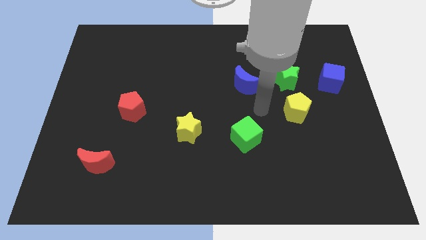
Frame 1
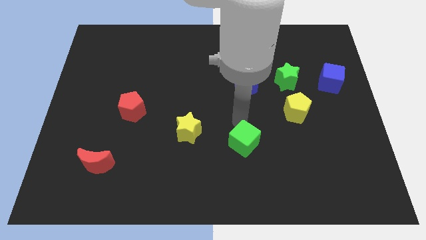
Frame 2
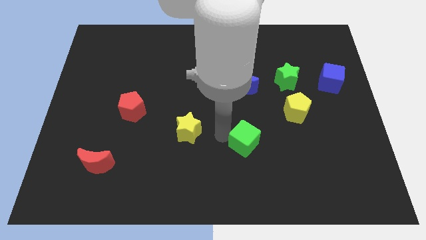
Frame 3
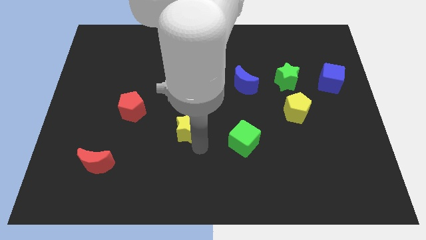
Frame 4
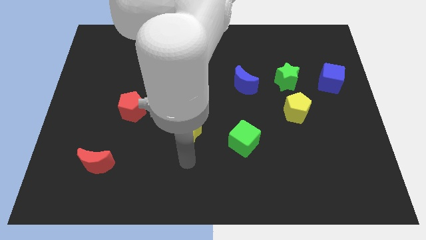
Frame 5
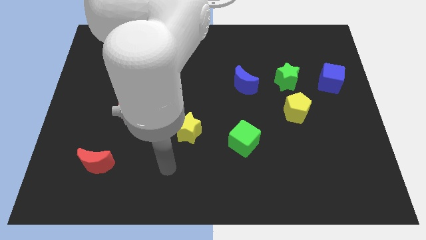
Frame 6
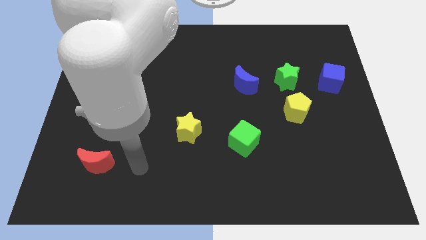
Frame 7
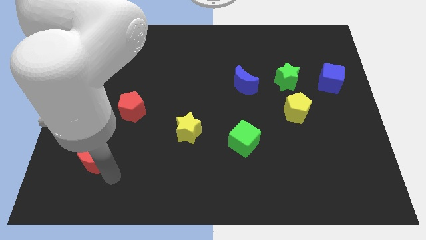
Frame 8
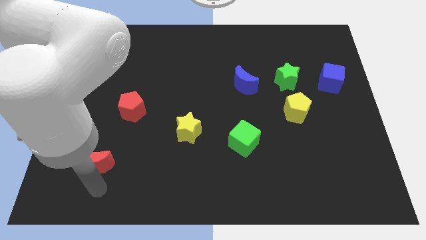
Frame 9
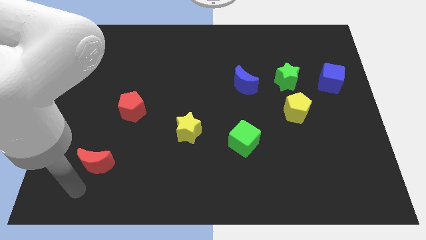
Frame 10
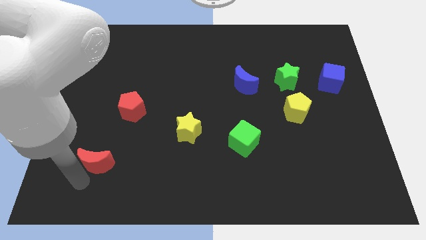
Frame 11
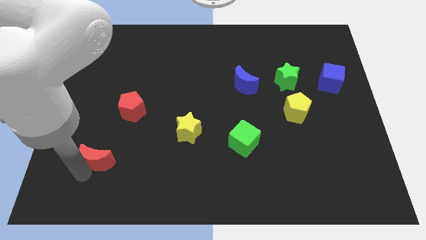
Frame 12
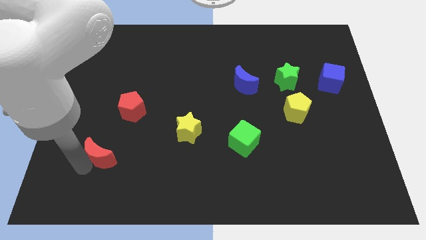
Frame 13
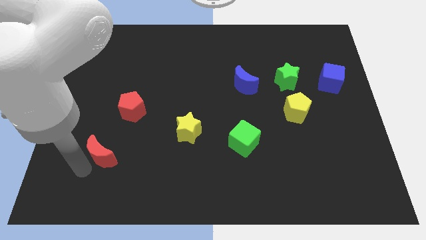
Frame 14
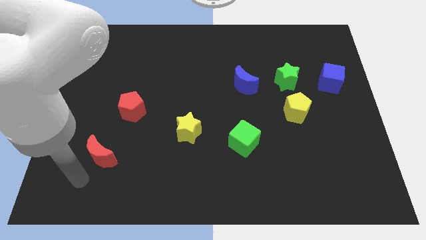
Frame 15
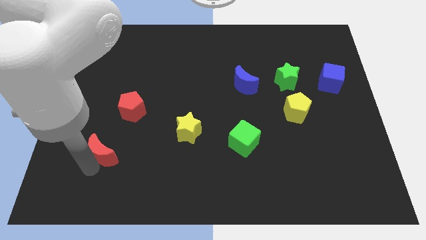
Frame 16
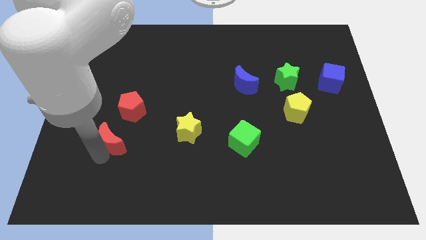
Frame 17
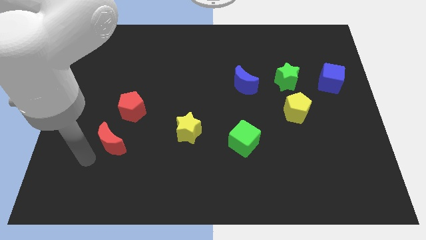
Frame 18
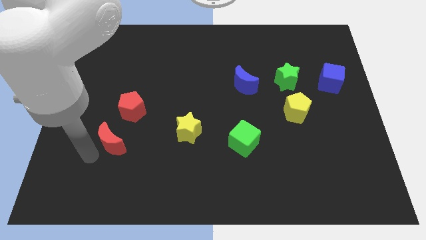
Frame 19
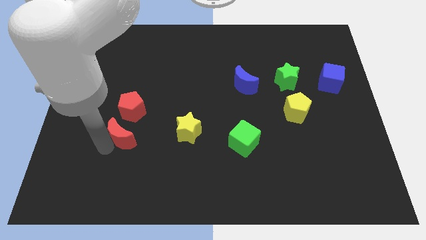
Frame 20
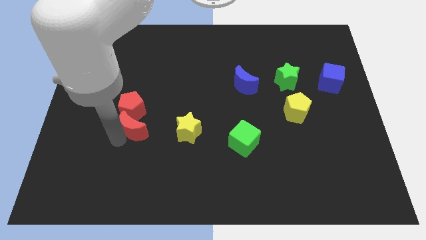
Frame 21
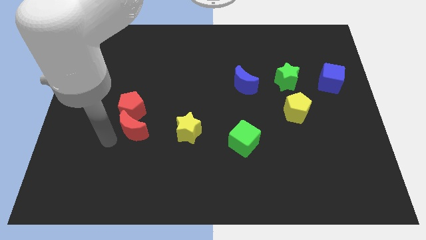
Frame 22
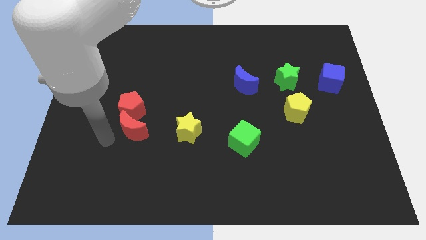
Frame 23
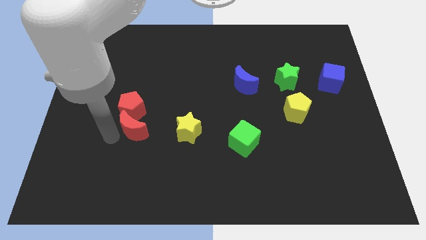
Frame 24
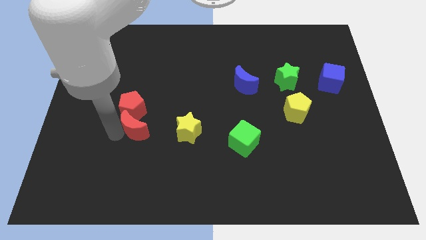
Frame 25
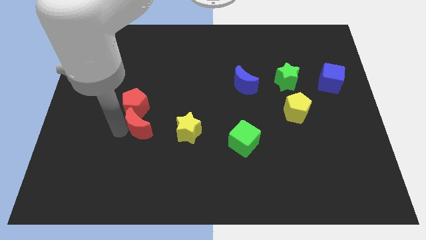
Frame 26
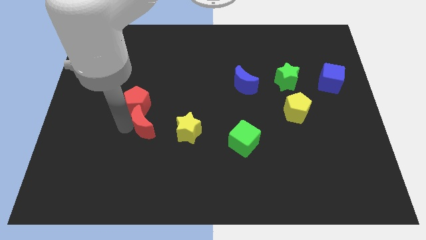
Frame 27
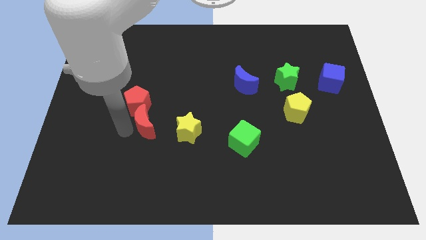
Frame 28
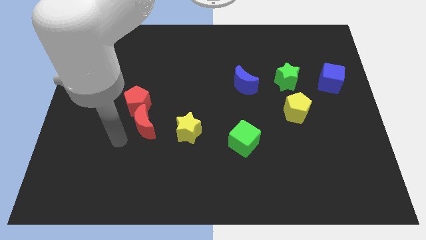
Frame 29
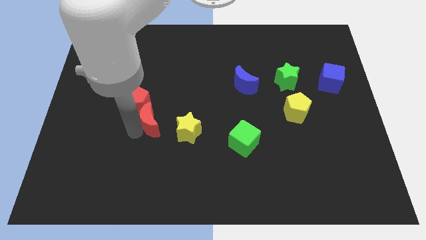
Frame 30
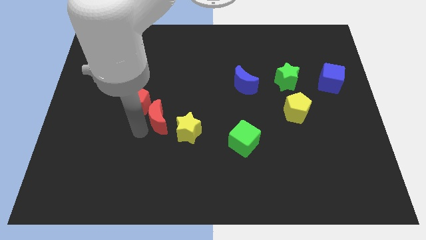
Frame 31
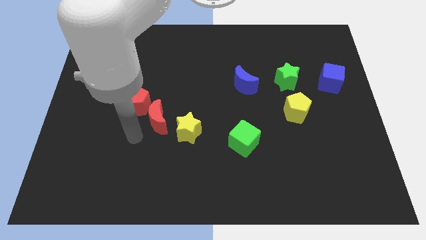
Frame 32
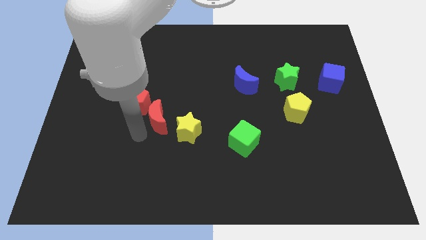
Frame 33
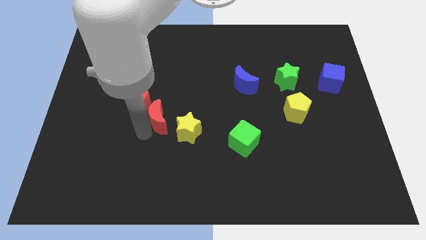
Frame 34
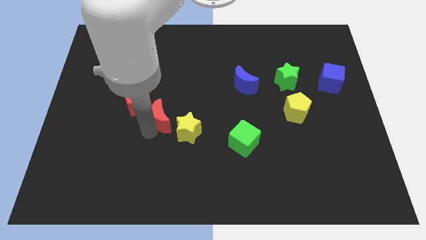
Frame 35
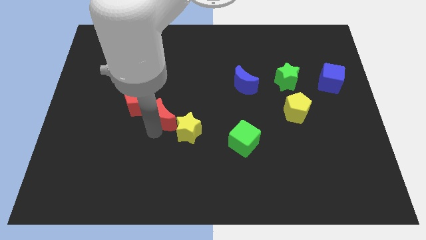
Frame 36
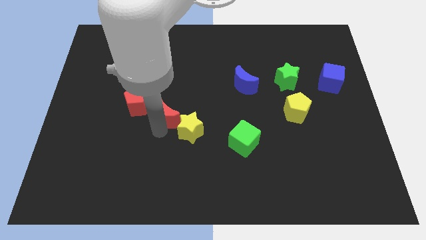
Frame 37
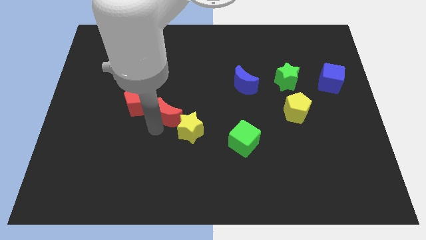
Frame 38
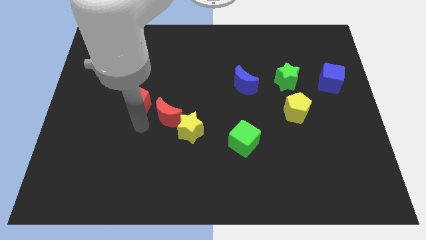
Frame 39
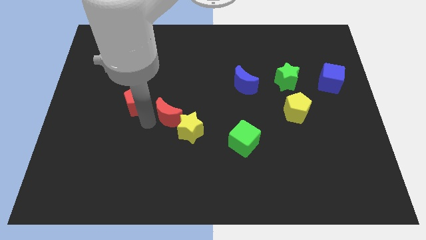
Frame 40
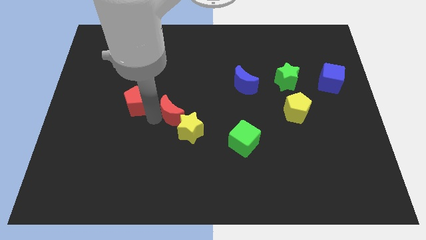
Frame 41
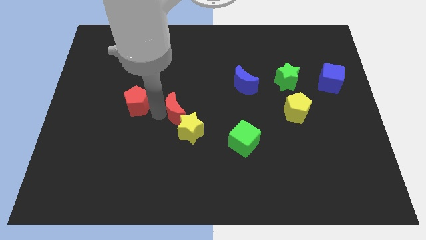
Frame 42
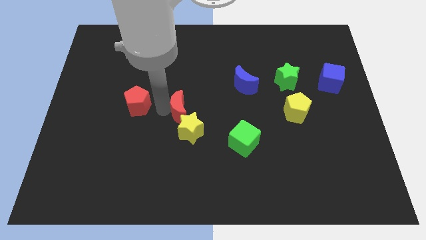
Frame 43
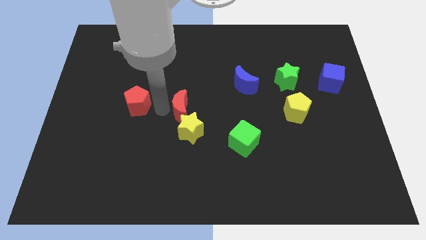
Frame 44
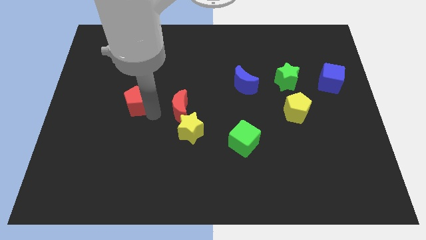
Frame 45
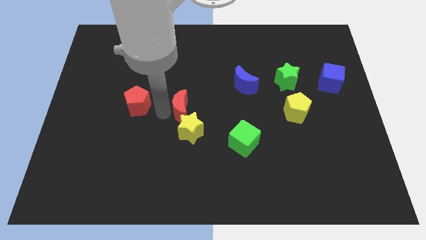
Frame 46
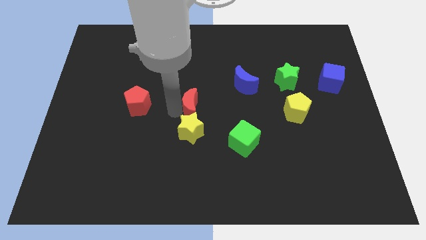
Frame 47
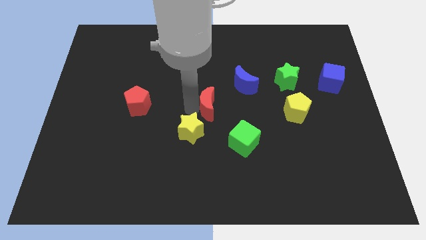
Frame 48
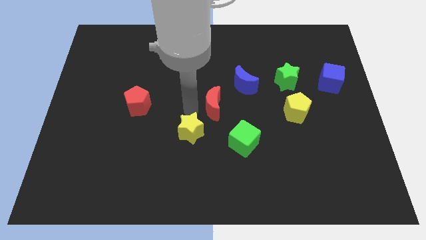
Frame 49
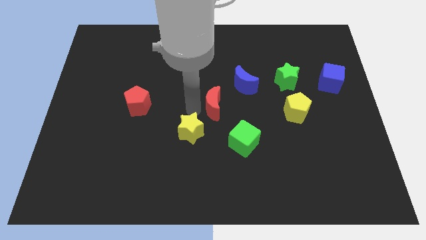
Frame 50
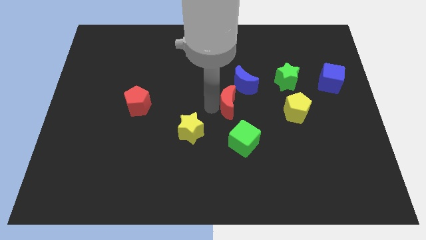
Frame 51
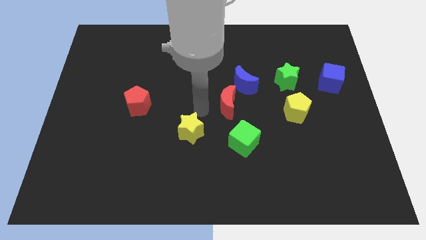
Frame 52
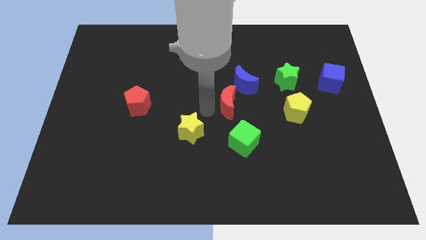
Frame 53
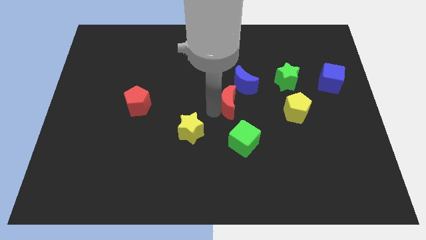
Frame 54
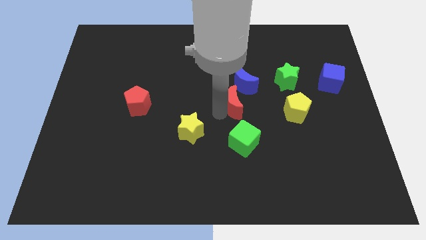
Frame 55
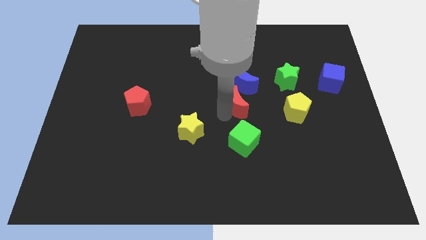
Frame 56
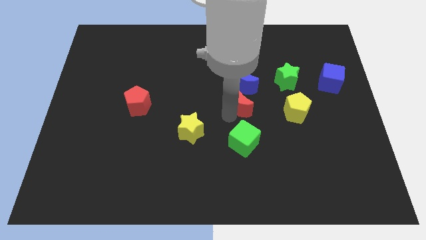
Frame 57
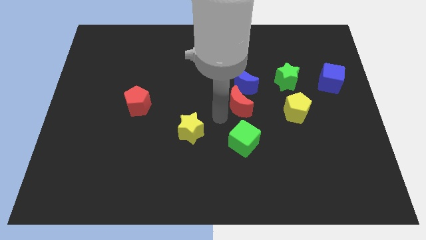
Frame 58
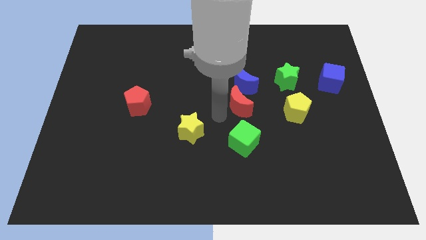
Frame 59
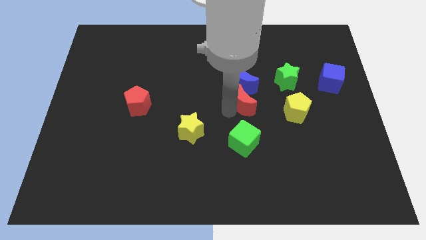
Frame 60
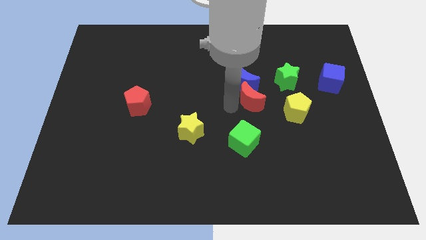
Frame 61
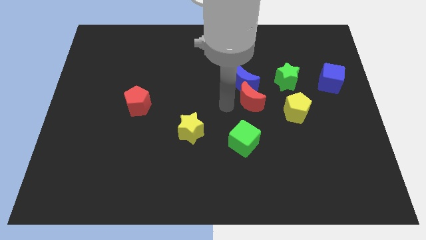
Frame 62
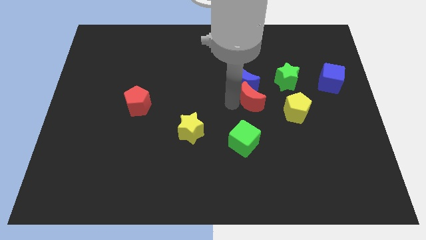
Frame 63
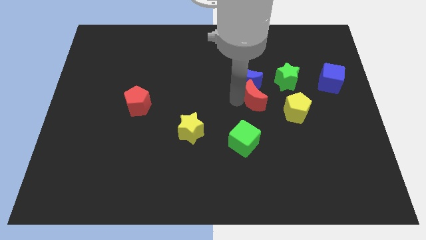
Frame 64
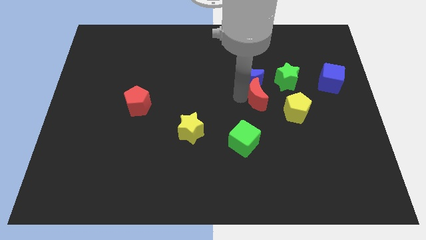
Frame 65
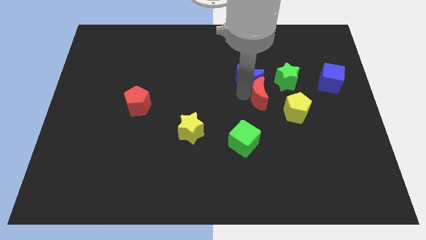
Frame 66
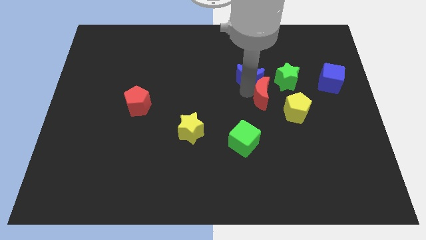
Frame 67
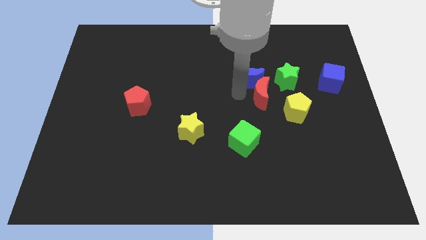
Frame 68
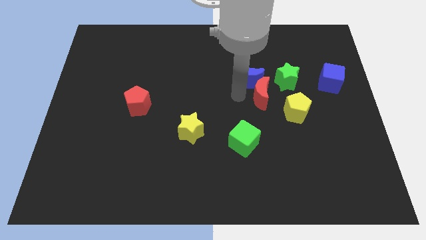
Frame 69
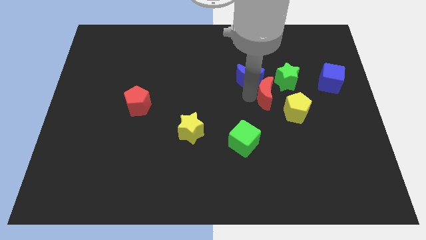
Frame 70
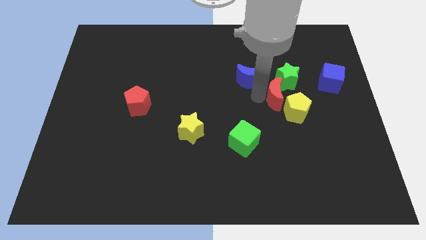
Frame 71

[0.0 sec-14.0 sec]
move the red moon to the top side of the yellow pentagon
